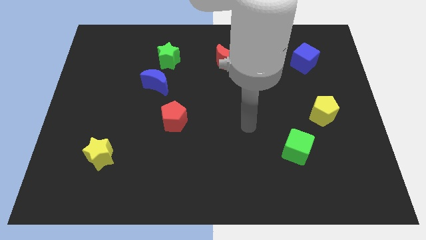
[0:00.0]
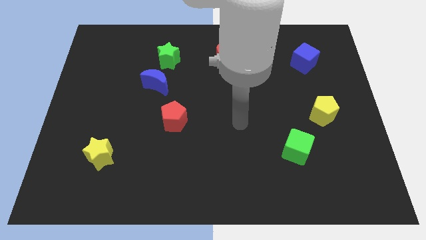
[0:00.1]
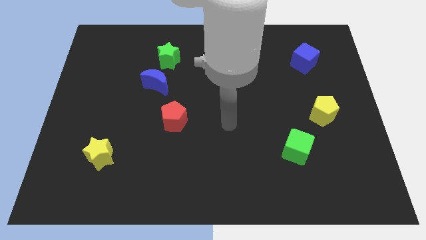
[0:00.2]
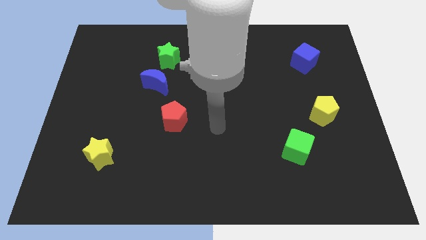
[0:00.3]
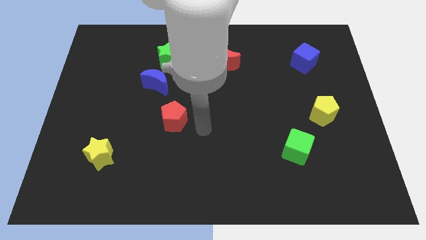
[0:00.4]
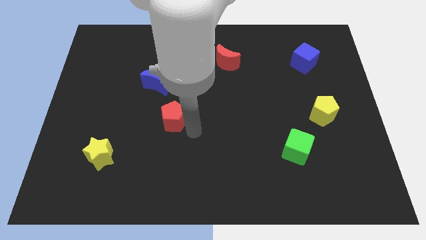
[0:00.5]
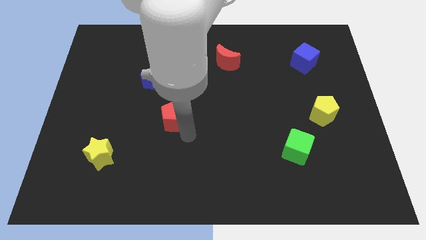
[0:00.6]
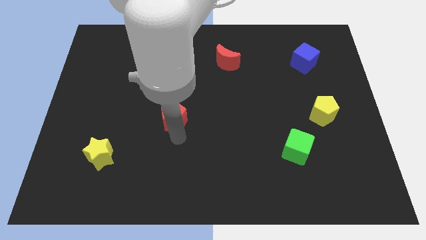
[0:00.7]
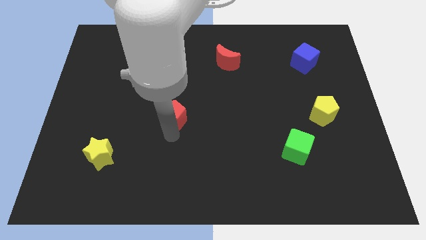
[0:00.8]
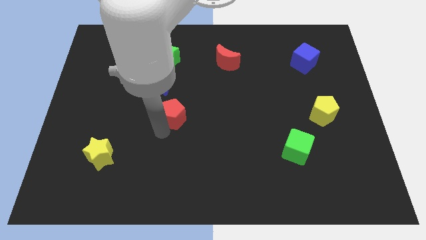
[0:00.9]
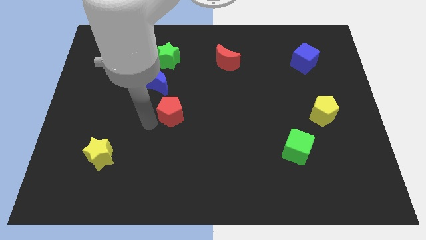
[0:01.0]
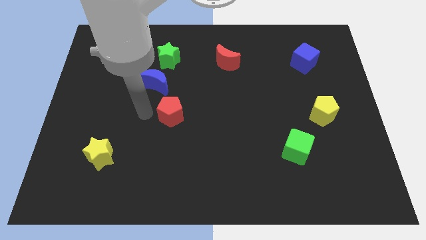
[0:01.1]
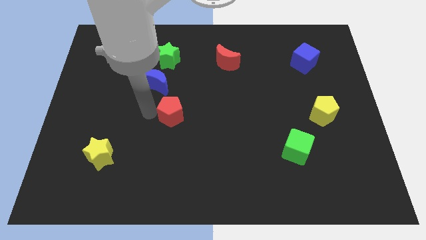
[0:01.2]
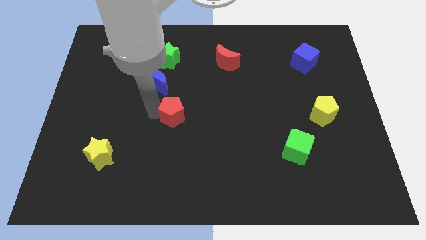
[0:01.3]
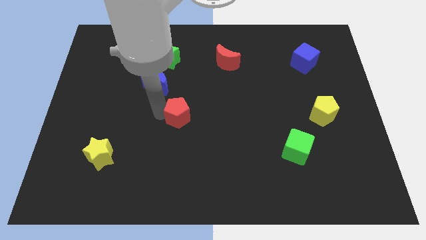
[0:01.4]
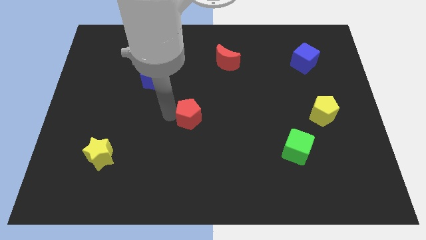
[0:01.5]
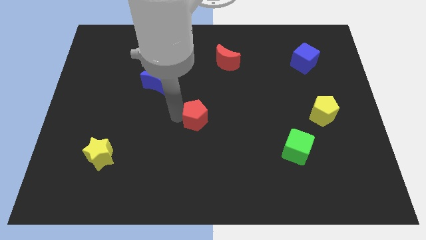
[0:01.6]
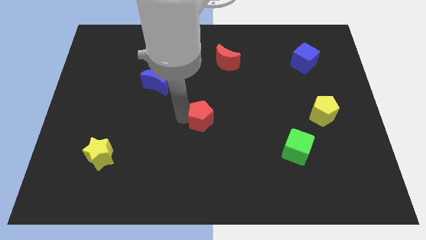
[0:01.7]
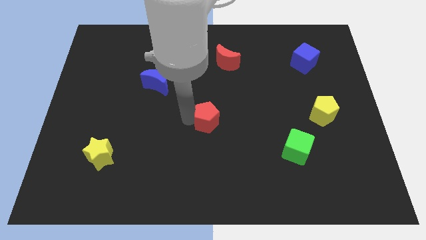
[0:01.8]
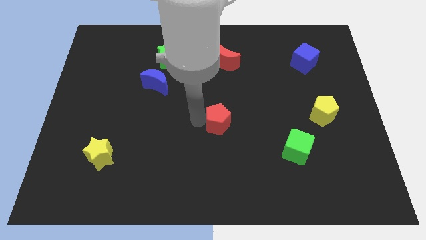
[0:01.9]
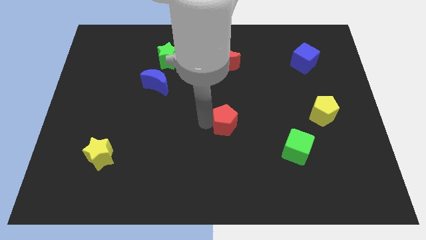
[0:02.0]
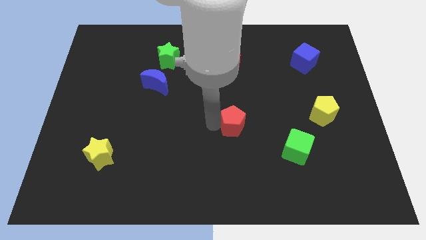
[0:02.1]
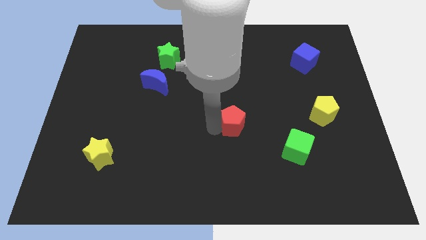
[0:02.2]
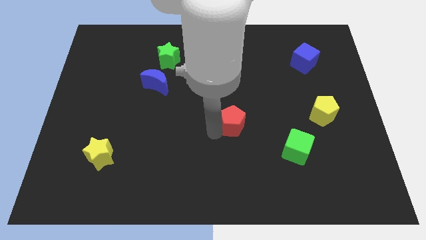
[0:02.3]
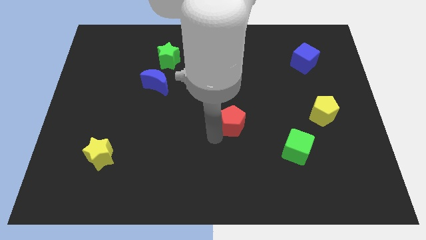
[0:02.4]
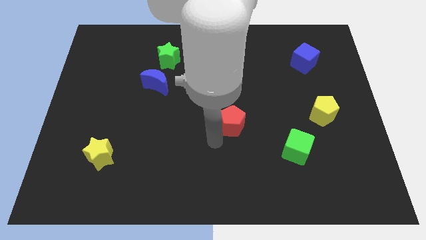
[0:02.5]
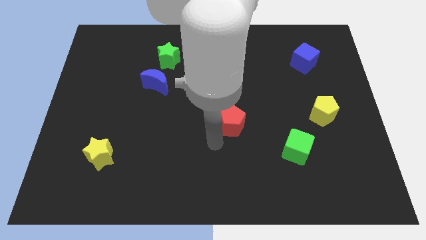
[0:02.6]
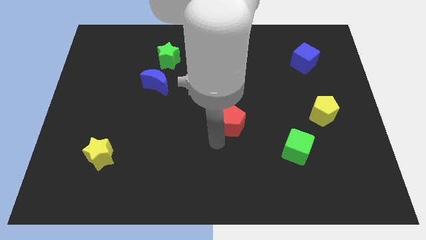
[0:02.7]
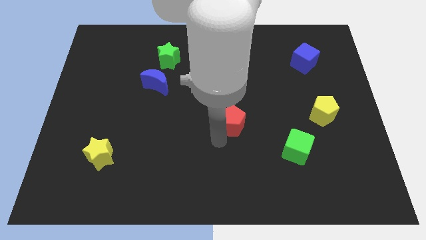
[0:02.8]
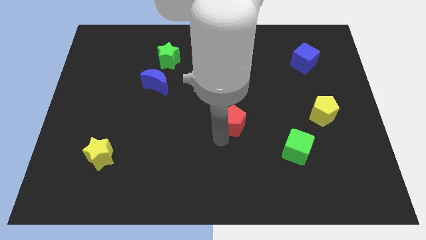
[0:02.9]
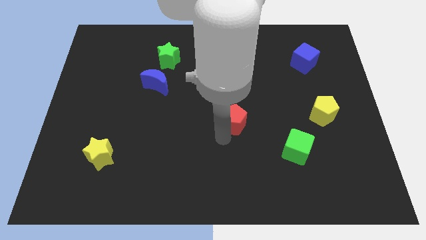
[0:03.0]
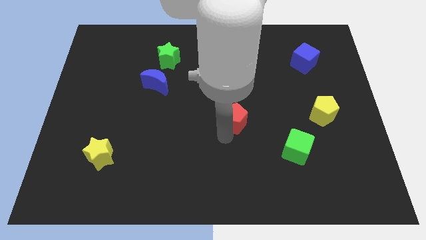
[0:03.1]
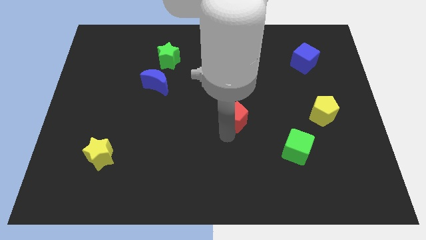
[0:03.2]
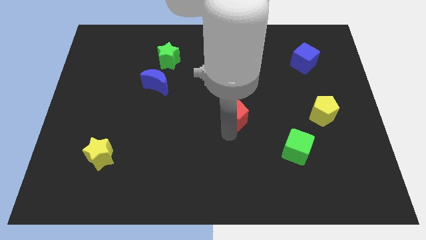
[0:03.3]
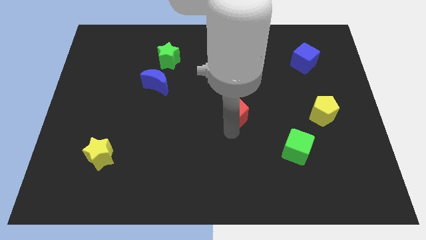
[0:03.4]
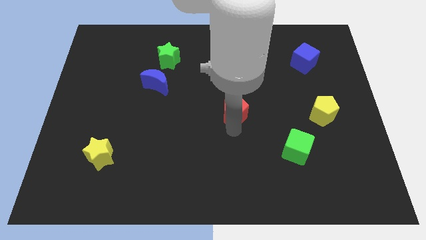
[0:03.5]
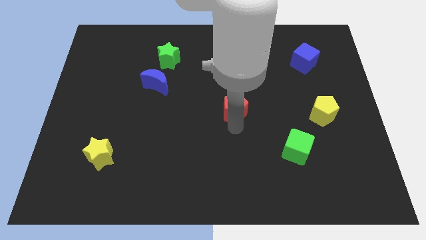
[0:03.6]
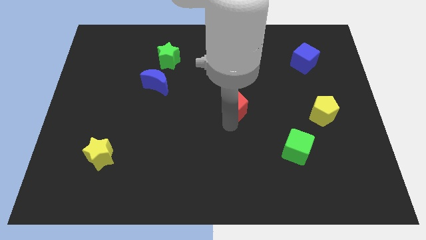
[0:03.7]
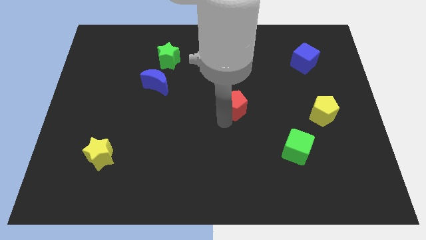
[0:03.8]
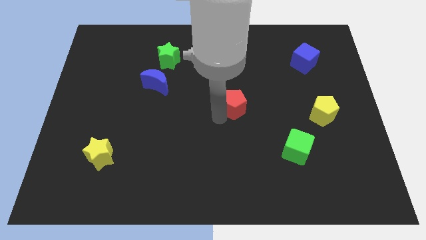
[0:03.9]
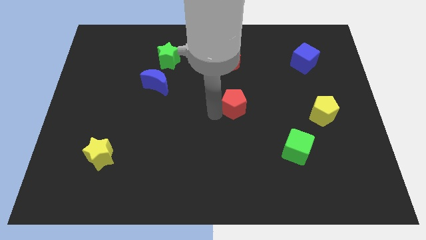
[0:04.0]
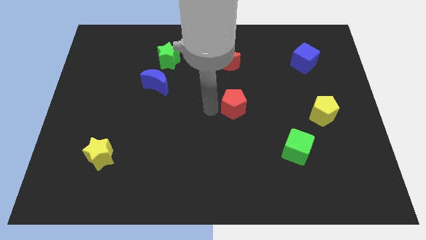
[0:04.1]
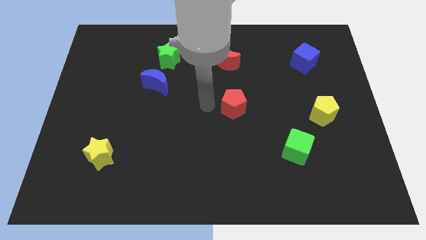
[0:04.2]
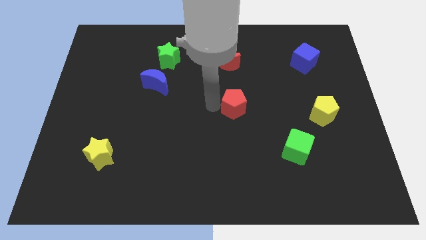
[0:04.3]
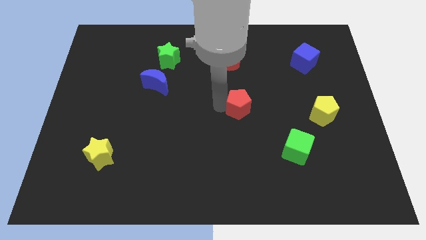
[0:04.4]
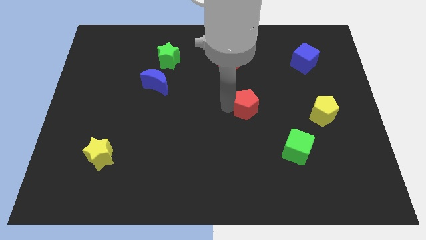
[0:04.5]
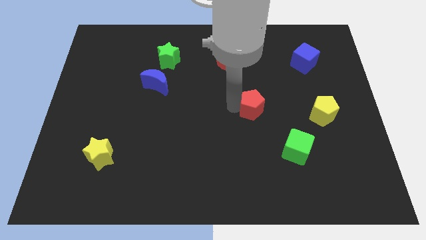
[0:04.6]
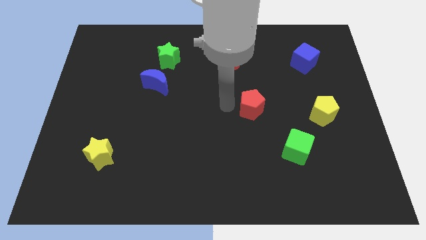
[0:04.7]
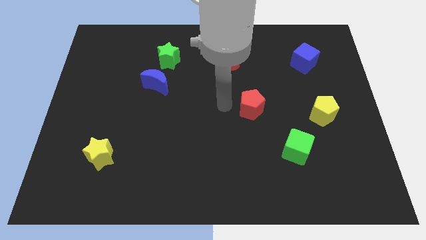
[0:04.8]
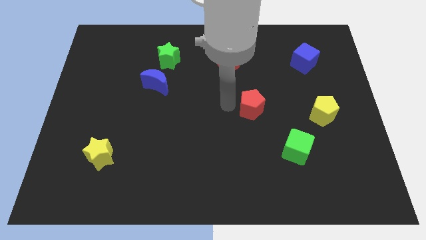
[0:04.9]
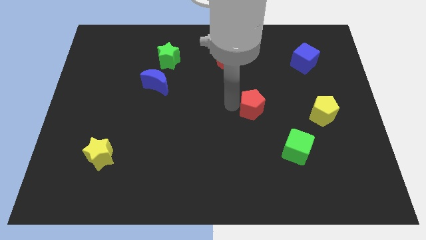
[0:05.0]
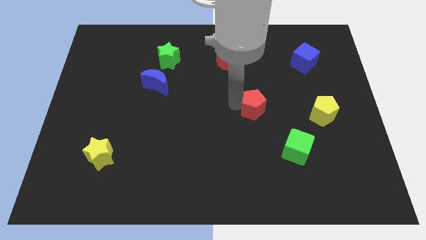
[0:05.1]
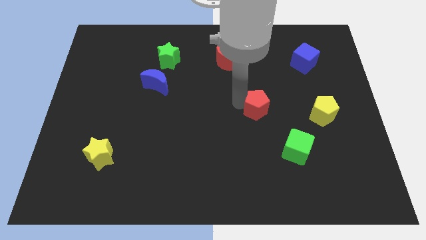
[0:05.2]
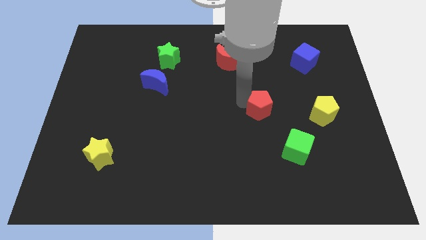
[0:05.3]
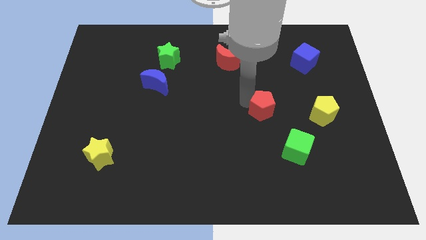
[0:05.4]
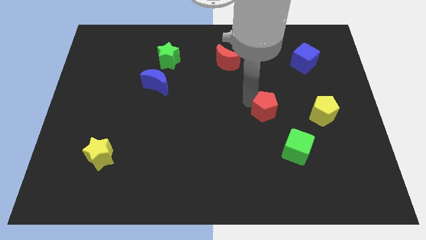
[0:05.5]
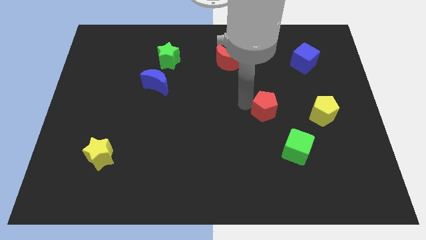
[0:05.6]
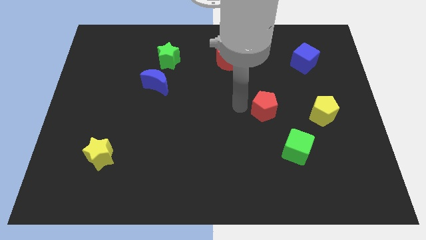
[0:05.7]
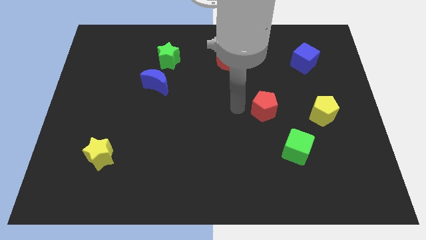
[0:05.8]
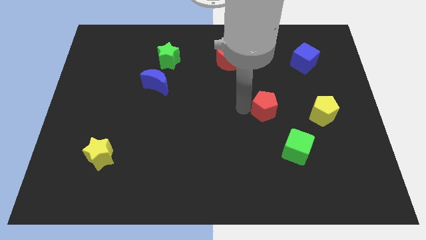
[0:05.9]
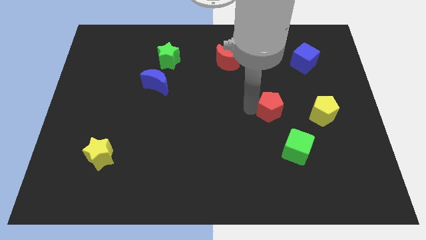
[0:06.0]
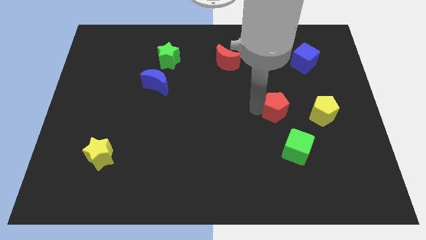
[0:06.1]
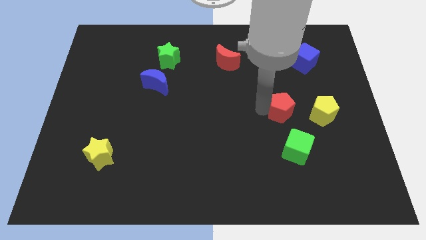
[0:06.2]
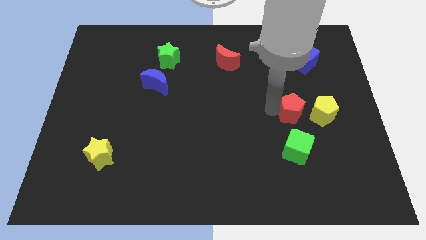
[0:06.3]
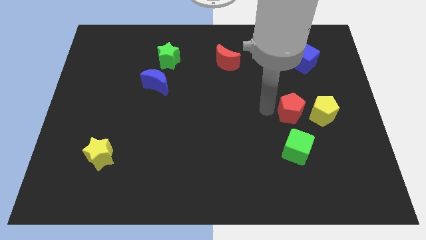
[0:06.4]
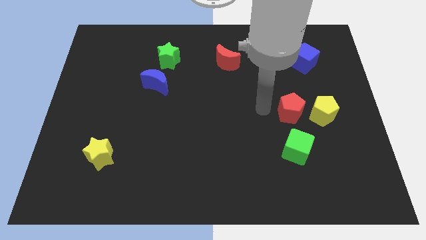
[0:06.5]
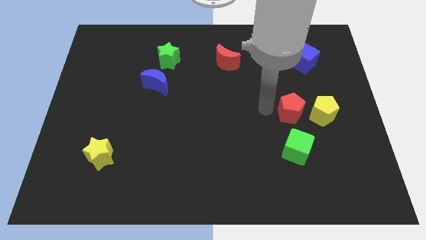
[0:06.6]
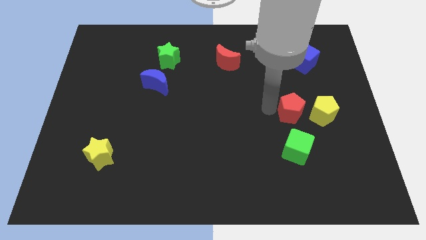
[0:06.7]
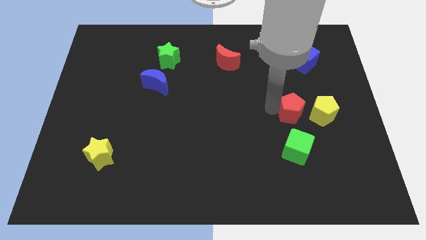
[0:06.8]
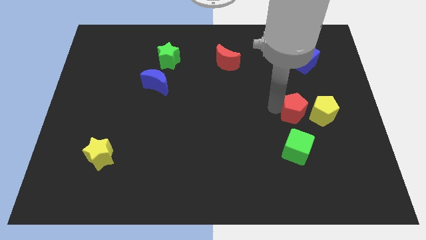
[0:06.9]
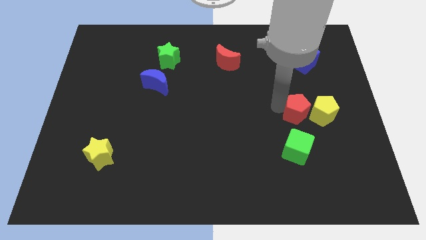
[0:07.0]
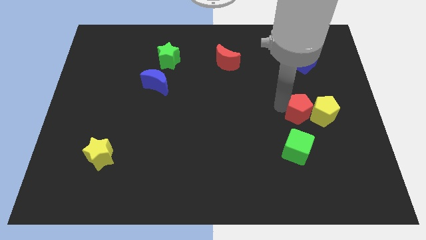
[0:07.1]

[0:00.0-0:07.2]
slide the red pentagon close to the yellow pentagon

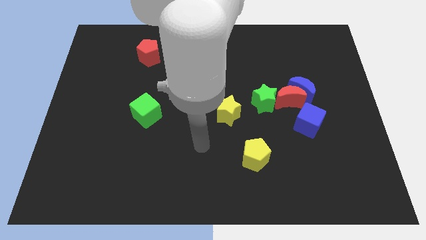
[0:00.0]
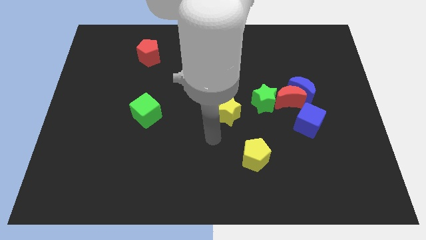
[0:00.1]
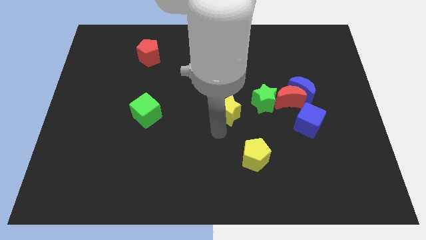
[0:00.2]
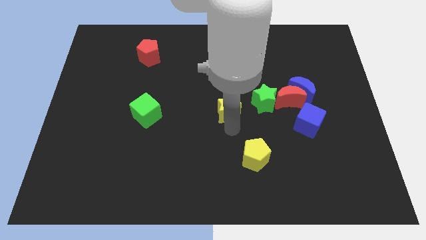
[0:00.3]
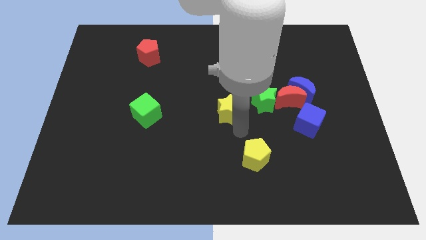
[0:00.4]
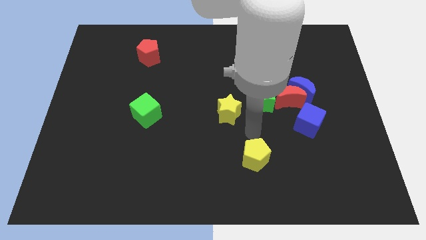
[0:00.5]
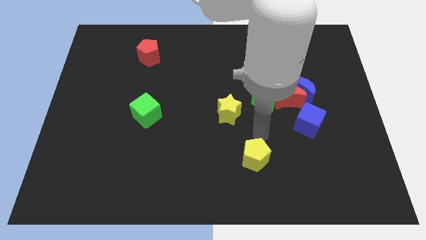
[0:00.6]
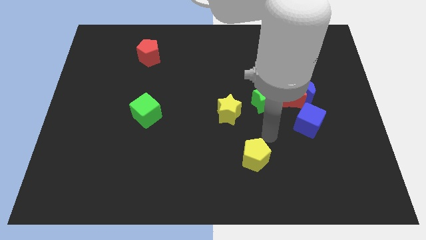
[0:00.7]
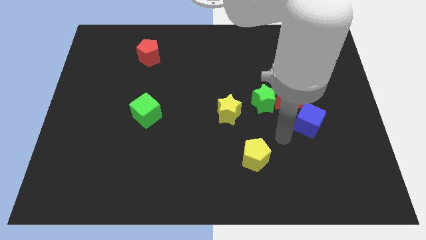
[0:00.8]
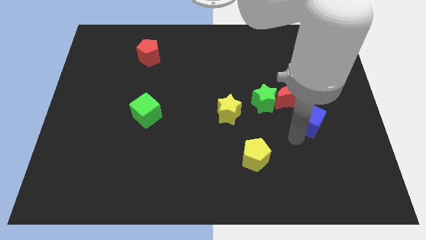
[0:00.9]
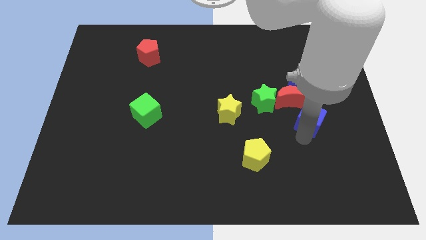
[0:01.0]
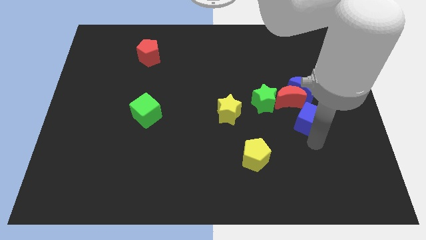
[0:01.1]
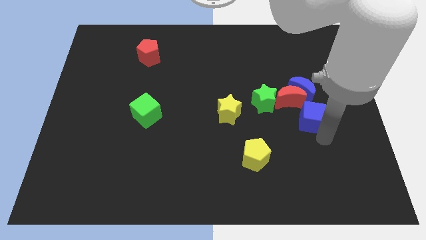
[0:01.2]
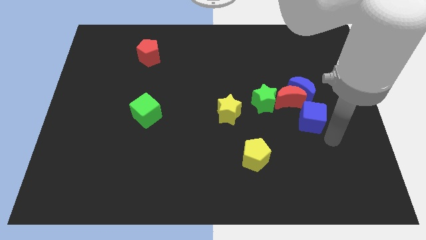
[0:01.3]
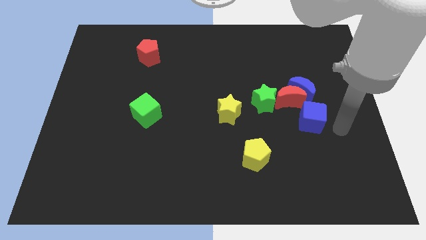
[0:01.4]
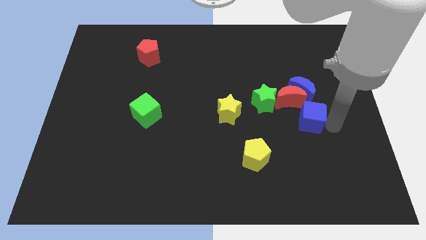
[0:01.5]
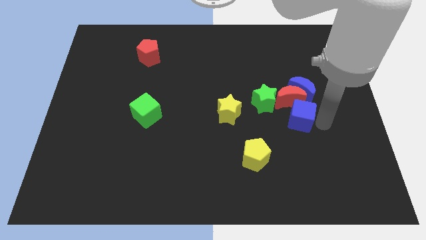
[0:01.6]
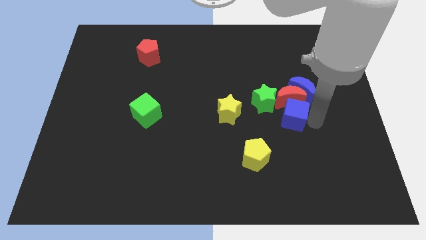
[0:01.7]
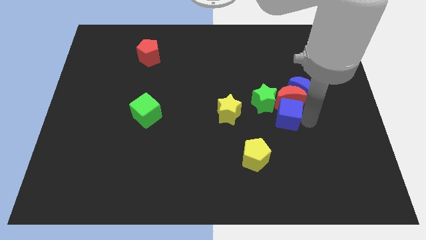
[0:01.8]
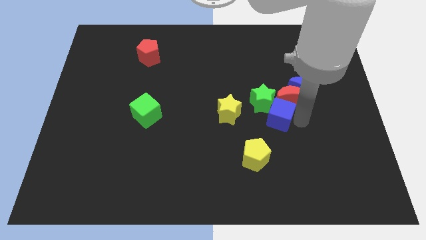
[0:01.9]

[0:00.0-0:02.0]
move the blue cube close to the green star
